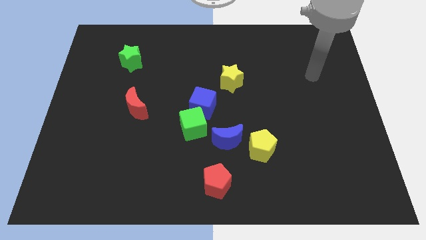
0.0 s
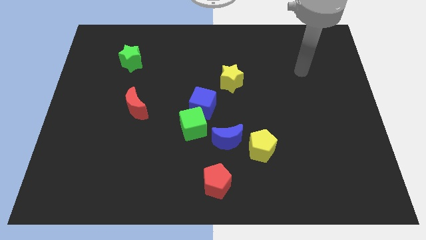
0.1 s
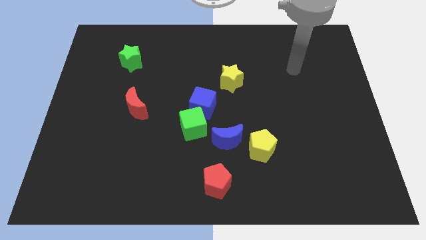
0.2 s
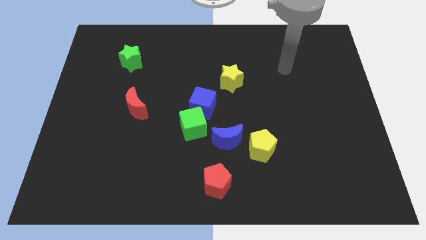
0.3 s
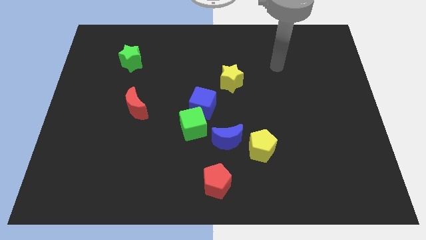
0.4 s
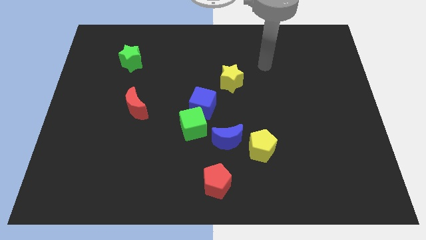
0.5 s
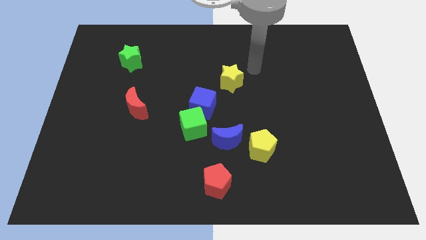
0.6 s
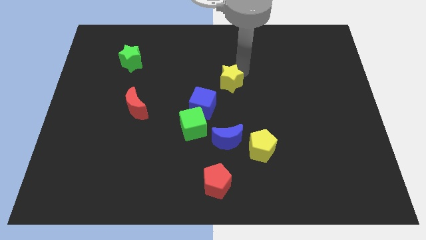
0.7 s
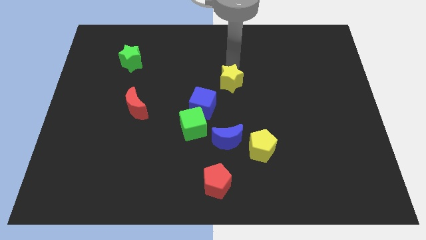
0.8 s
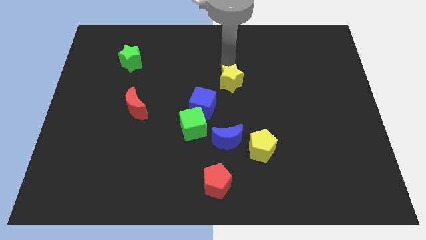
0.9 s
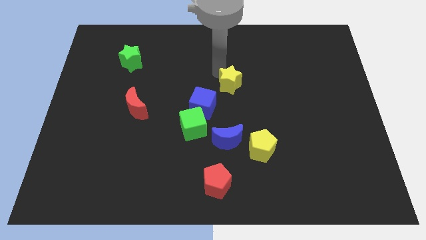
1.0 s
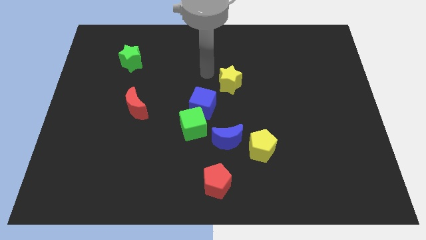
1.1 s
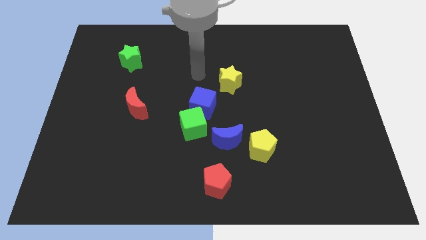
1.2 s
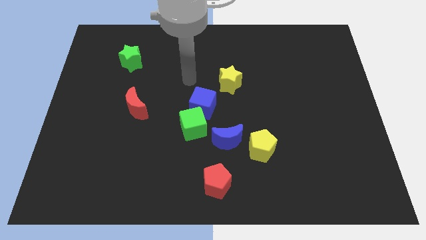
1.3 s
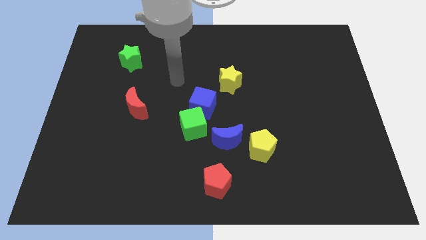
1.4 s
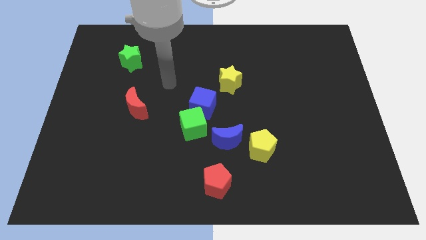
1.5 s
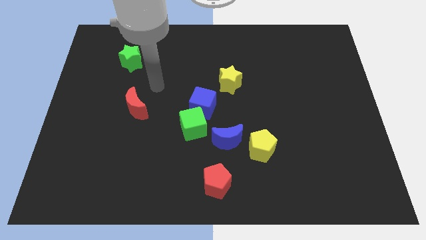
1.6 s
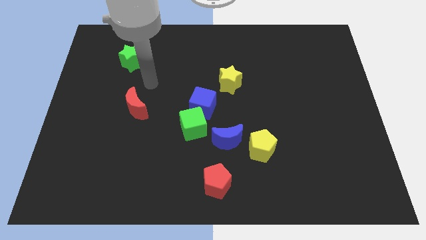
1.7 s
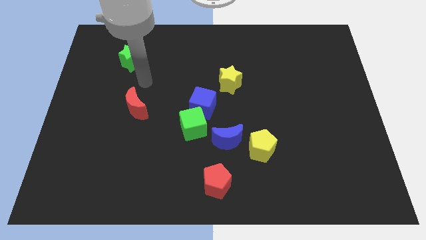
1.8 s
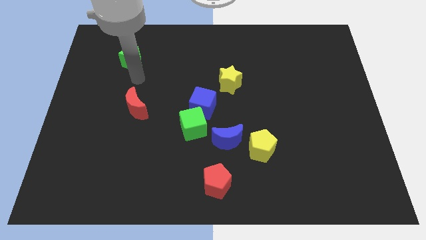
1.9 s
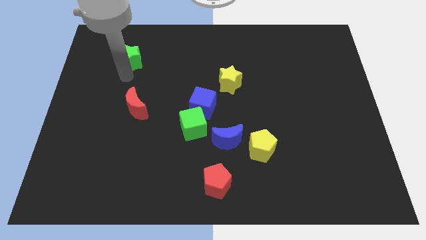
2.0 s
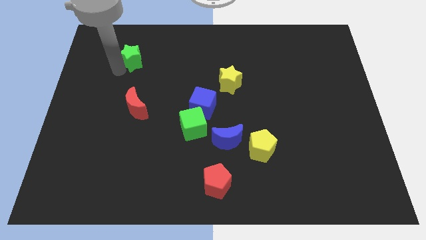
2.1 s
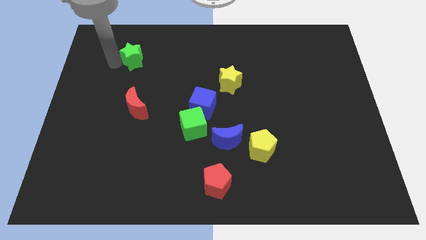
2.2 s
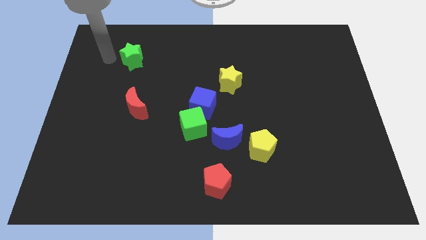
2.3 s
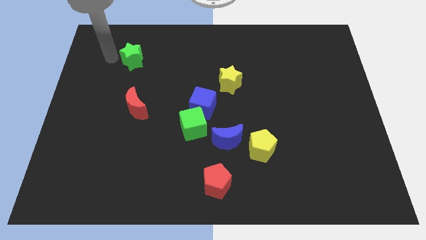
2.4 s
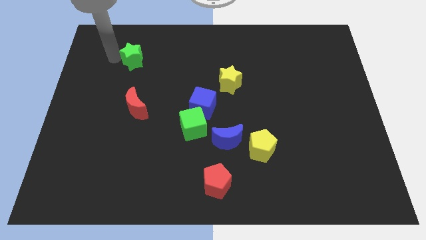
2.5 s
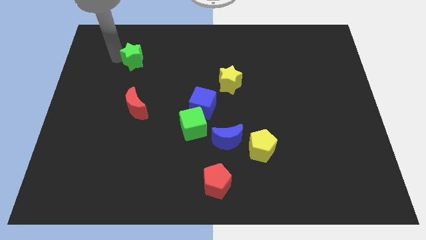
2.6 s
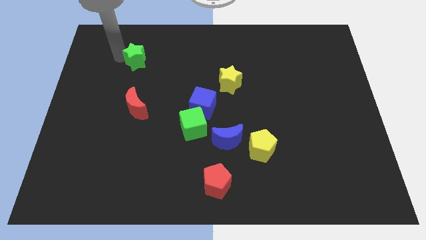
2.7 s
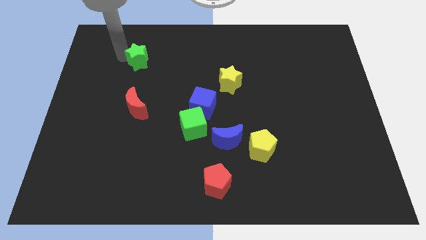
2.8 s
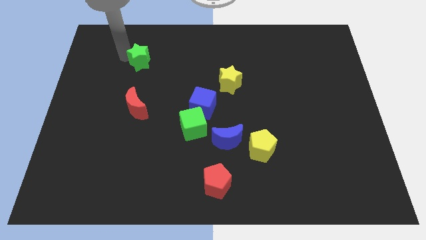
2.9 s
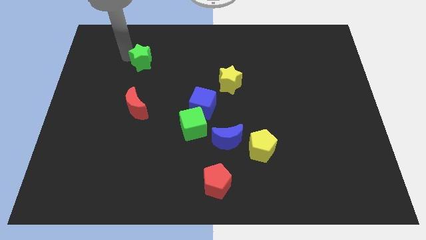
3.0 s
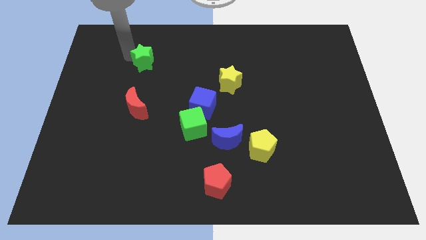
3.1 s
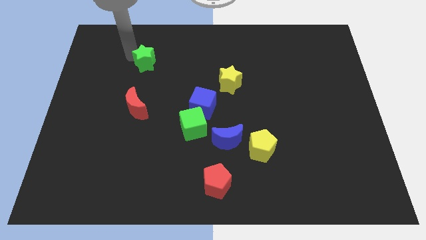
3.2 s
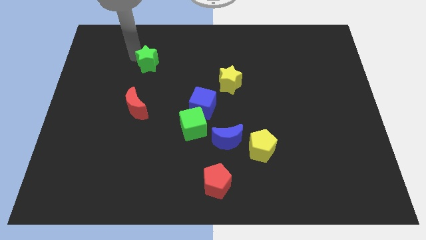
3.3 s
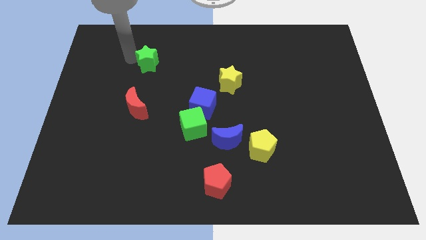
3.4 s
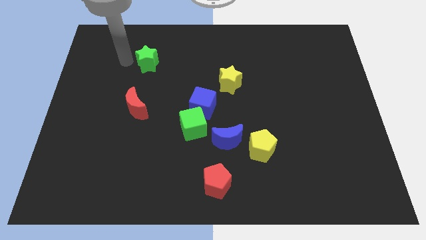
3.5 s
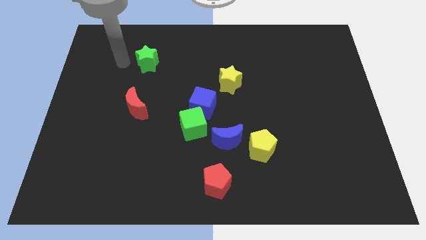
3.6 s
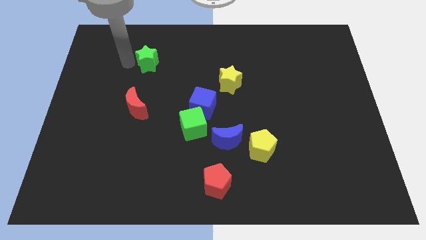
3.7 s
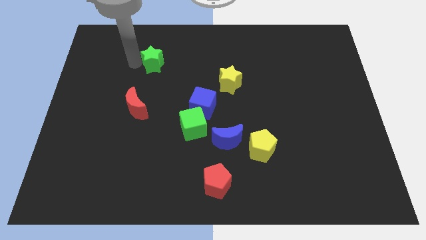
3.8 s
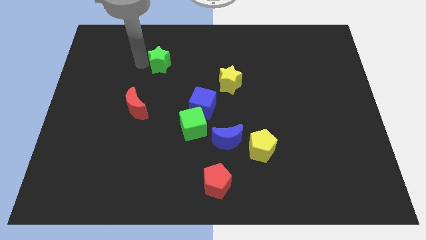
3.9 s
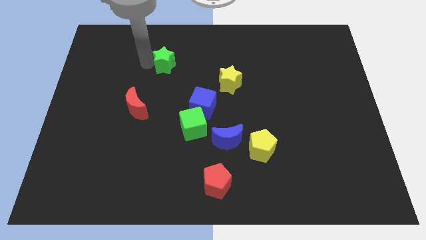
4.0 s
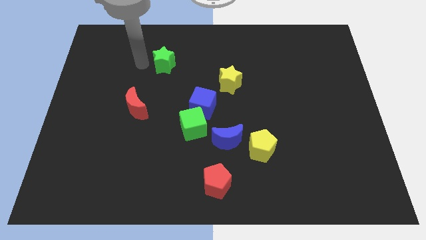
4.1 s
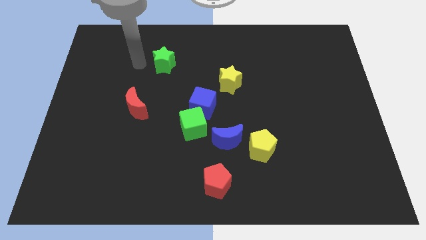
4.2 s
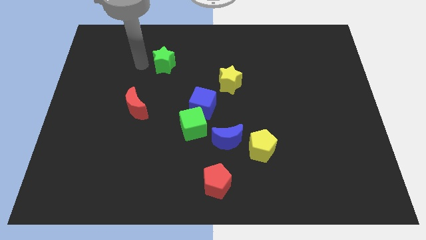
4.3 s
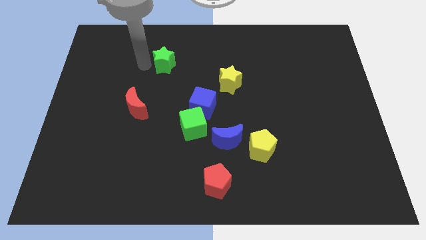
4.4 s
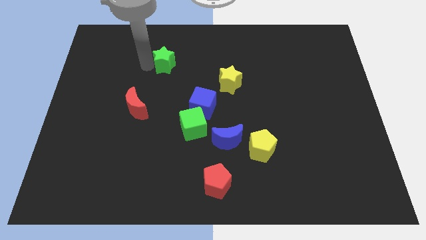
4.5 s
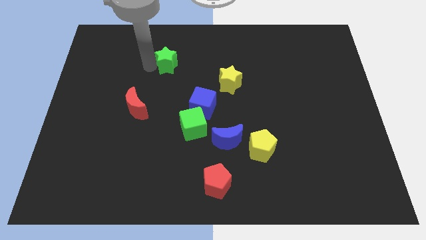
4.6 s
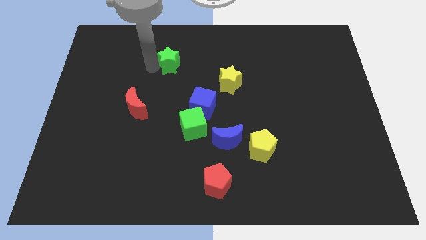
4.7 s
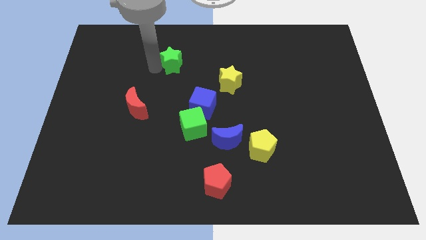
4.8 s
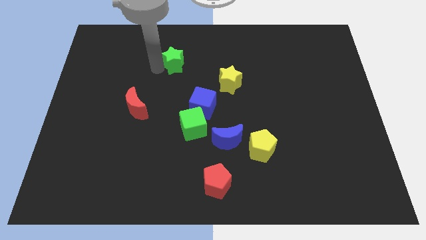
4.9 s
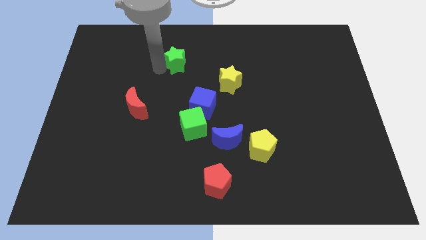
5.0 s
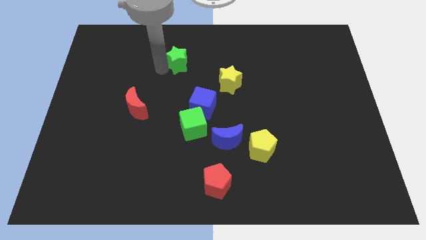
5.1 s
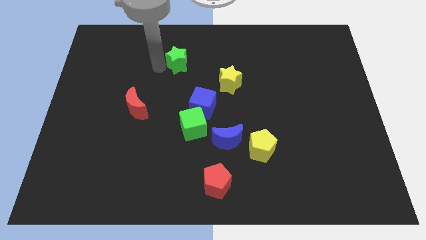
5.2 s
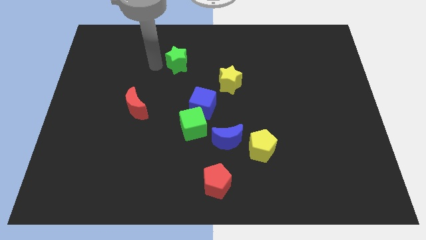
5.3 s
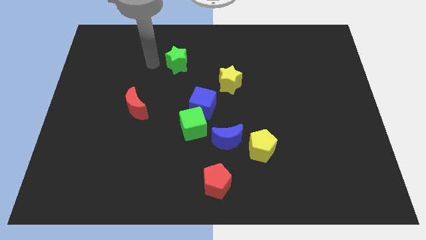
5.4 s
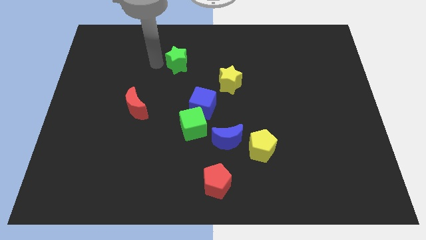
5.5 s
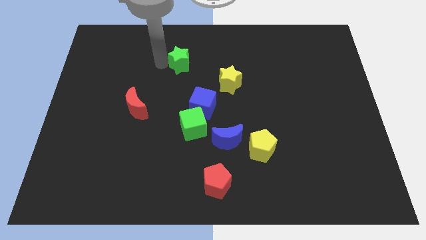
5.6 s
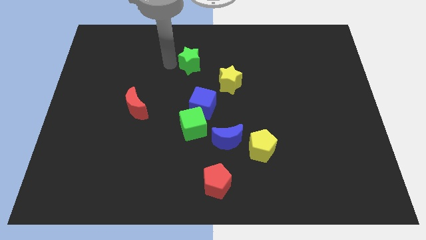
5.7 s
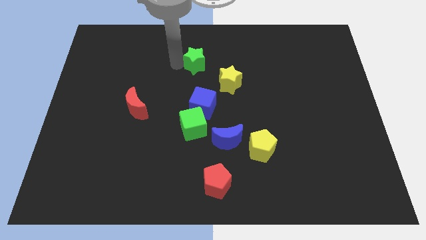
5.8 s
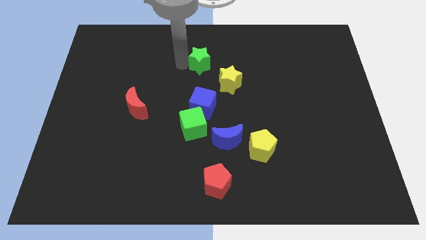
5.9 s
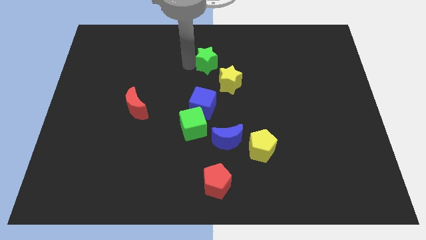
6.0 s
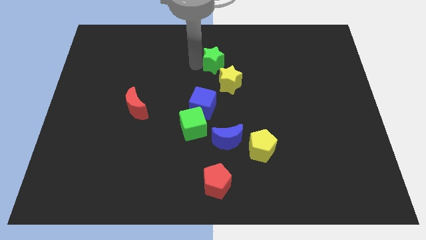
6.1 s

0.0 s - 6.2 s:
slide the green star to the right

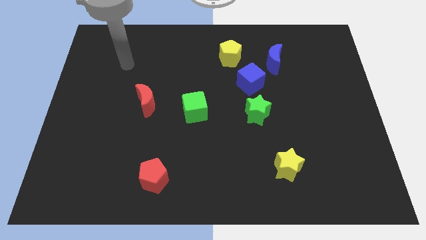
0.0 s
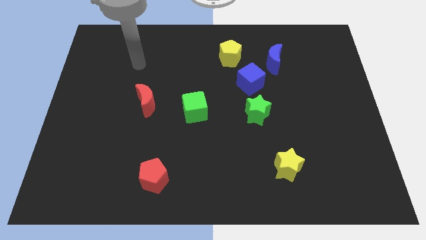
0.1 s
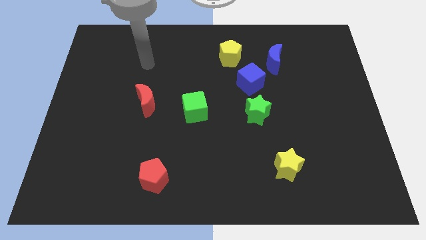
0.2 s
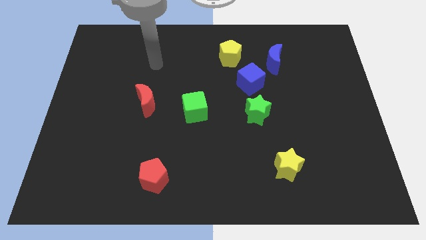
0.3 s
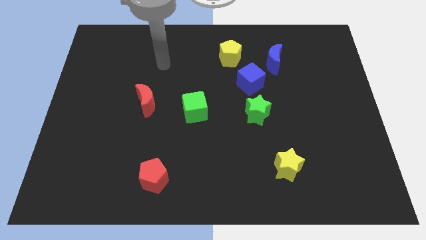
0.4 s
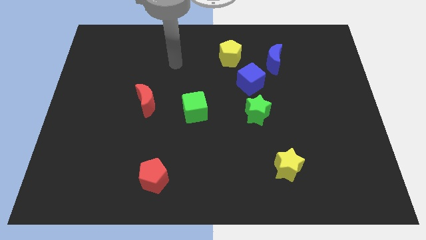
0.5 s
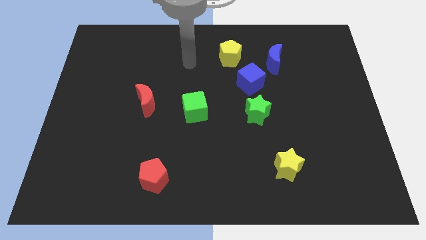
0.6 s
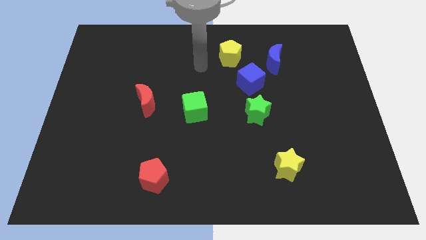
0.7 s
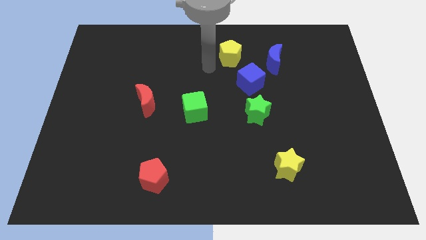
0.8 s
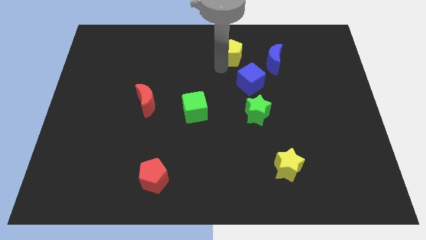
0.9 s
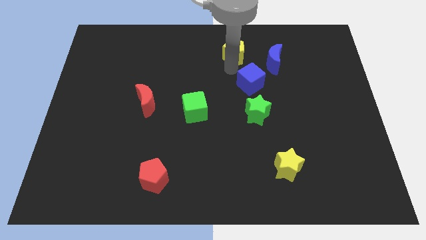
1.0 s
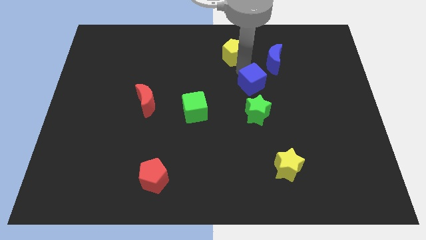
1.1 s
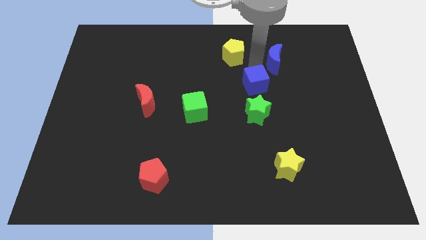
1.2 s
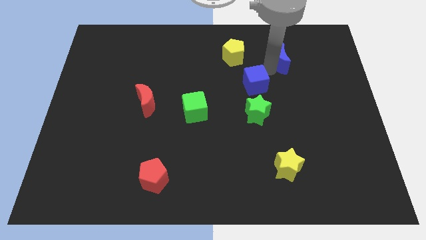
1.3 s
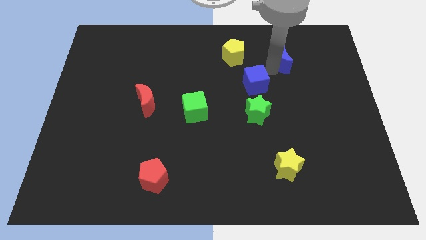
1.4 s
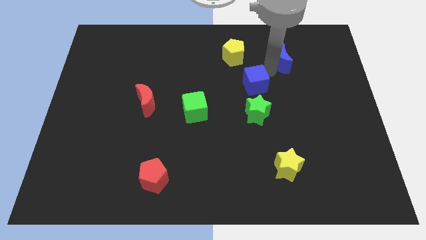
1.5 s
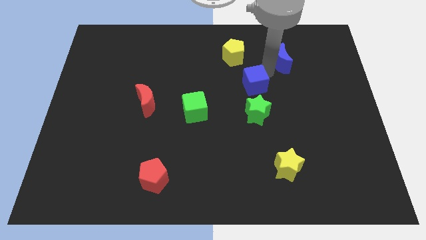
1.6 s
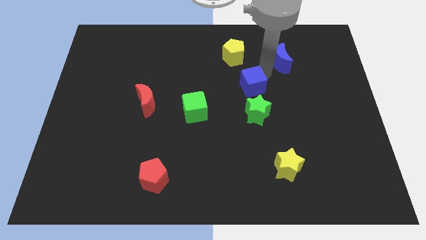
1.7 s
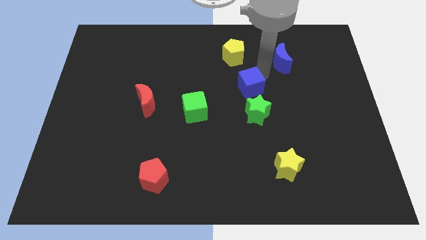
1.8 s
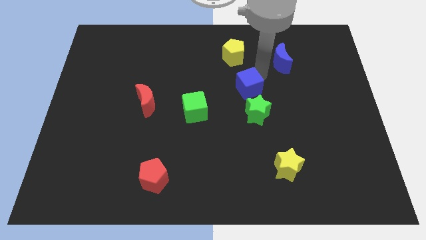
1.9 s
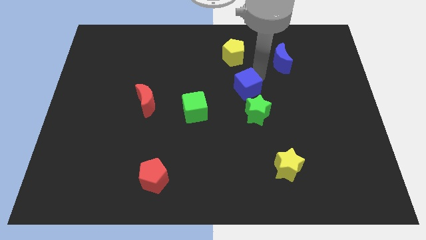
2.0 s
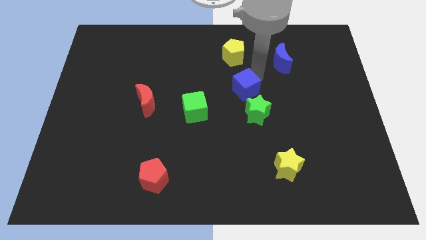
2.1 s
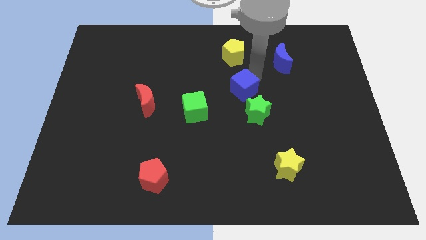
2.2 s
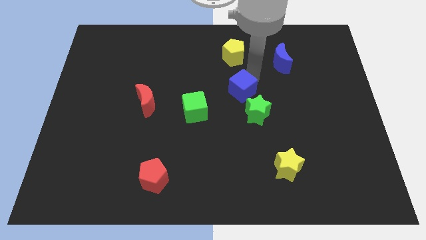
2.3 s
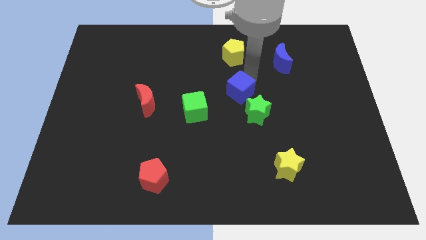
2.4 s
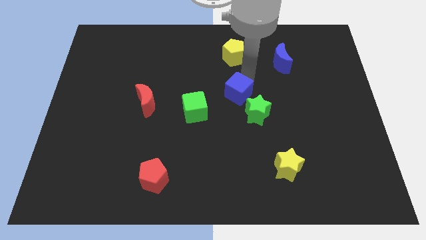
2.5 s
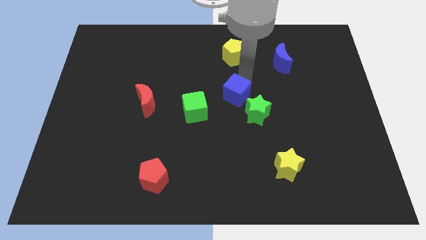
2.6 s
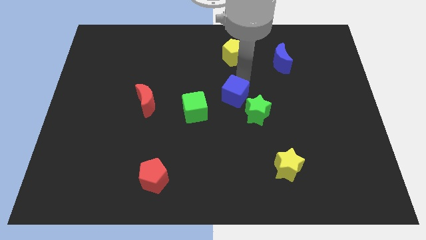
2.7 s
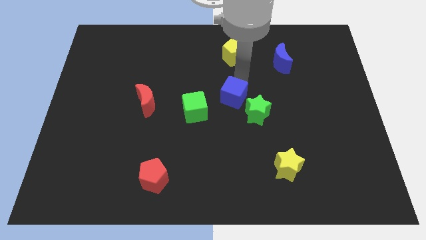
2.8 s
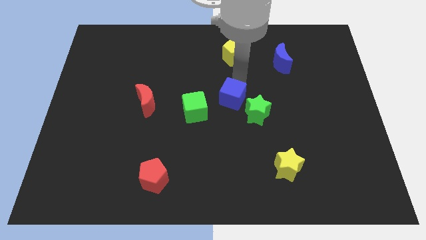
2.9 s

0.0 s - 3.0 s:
move the blue cube downwards and then to the left somewhat
